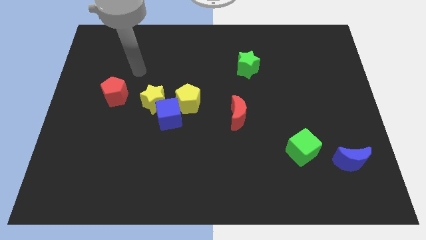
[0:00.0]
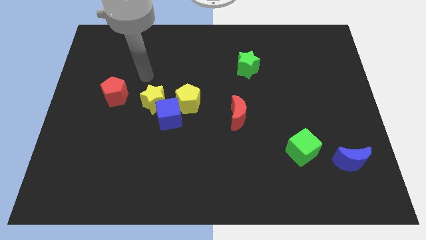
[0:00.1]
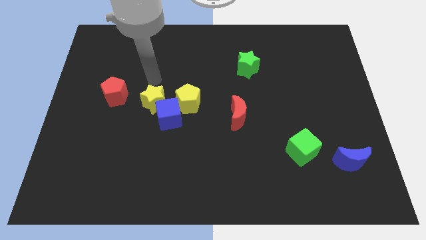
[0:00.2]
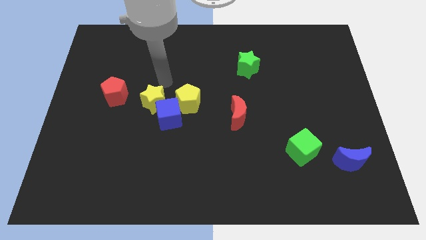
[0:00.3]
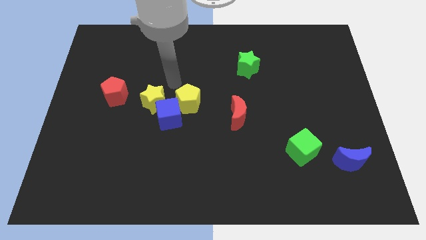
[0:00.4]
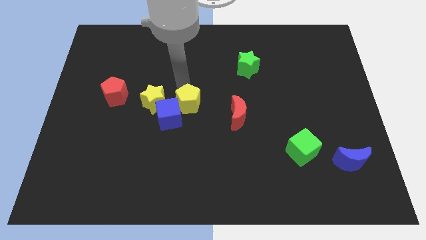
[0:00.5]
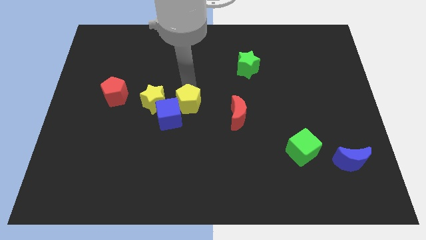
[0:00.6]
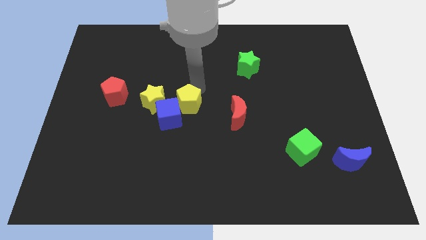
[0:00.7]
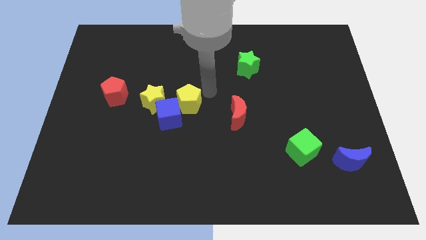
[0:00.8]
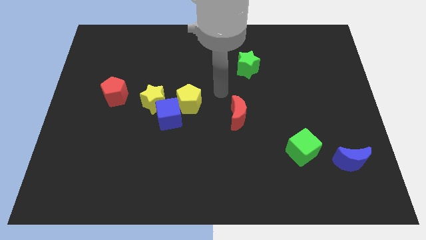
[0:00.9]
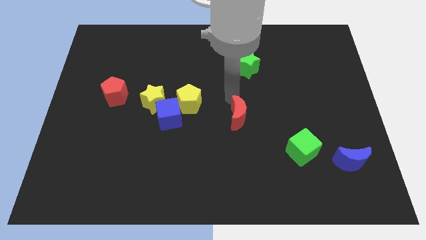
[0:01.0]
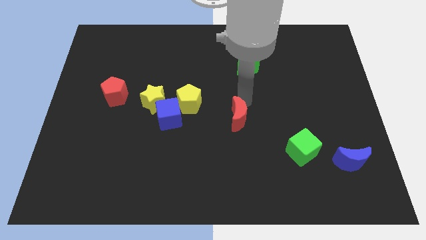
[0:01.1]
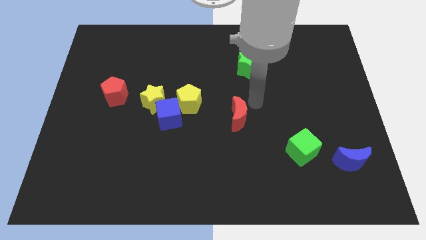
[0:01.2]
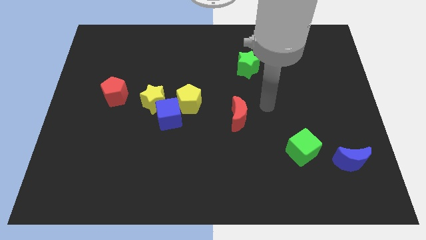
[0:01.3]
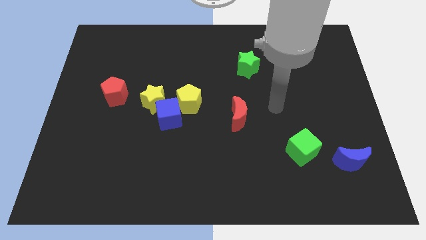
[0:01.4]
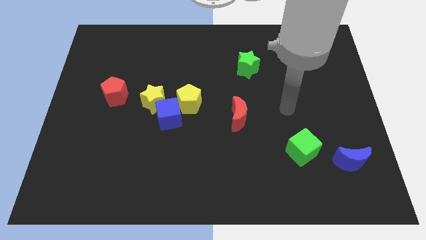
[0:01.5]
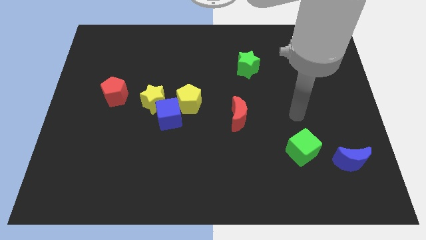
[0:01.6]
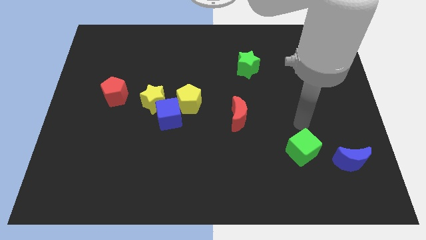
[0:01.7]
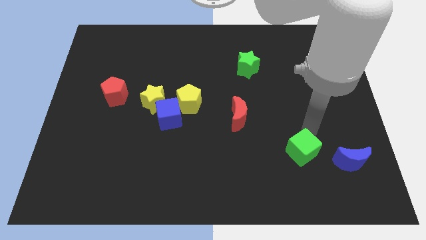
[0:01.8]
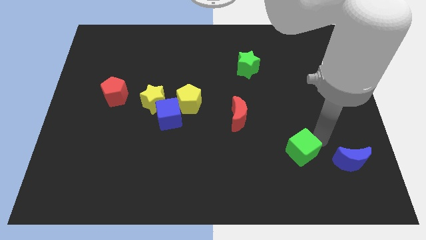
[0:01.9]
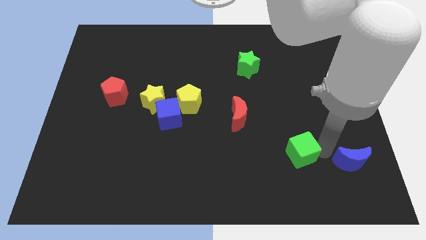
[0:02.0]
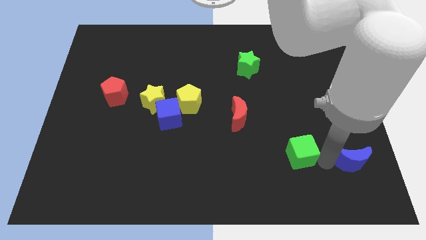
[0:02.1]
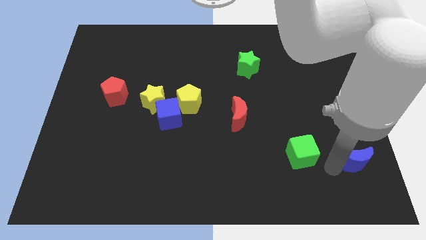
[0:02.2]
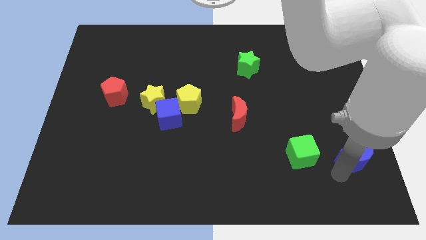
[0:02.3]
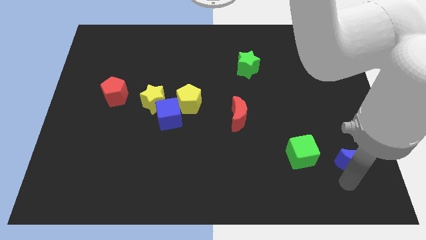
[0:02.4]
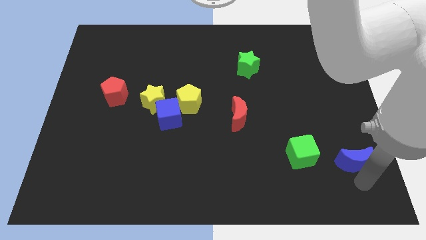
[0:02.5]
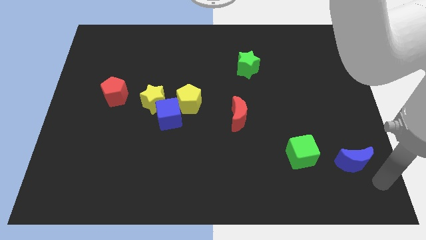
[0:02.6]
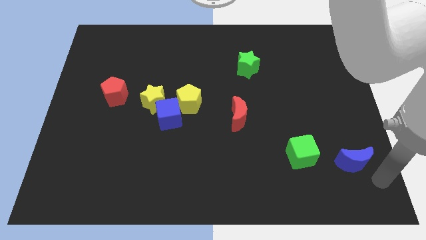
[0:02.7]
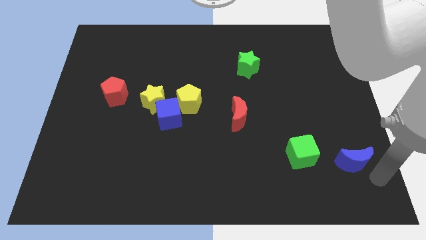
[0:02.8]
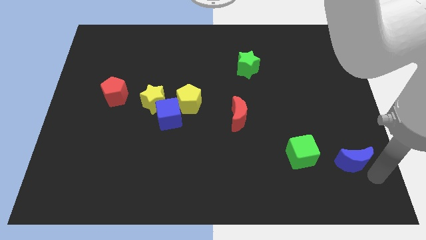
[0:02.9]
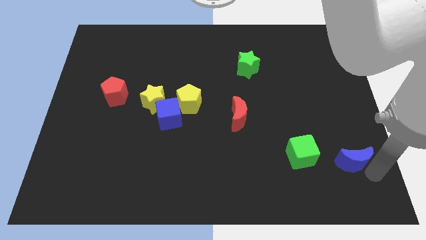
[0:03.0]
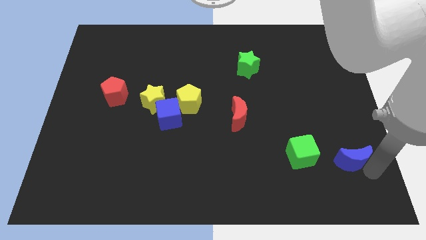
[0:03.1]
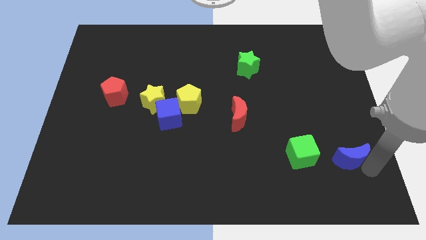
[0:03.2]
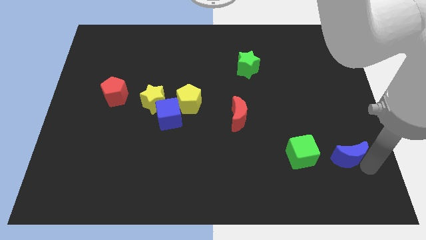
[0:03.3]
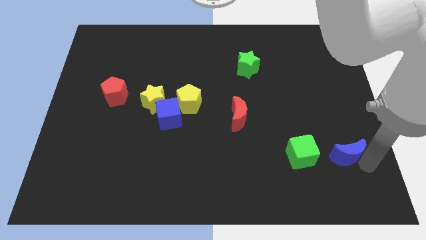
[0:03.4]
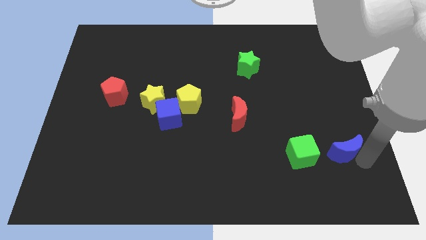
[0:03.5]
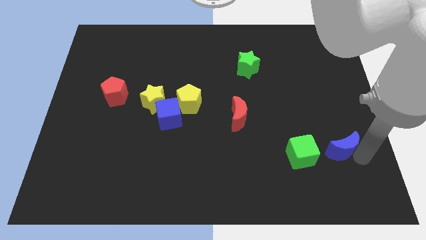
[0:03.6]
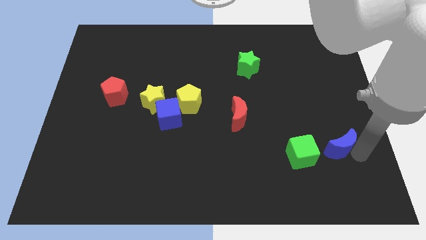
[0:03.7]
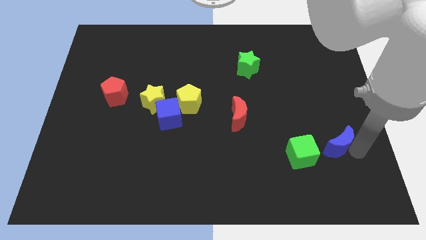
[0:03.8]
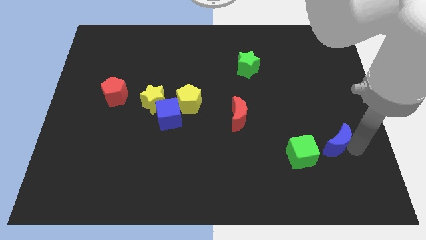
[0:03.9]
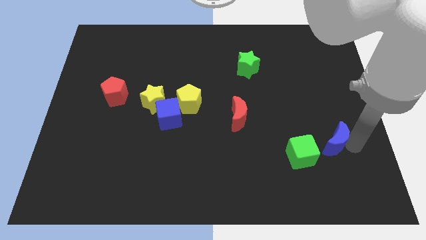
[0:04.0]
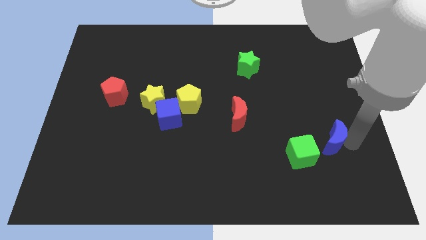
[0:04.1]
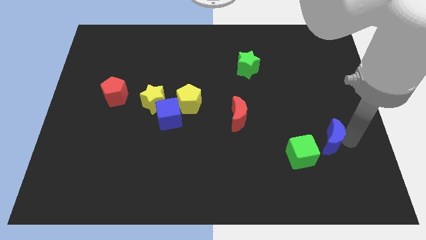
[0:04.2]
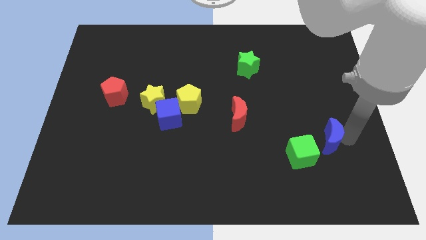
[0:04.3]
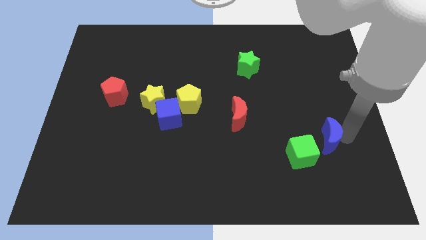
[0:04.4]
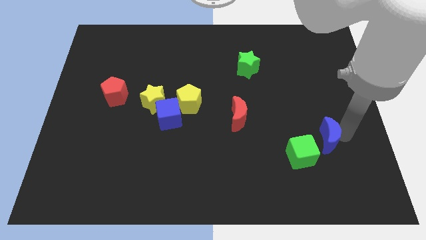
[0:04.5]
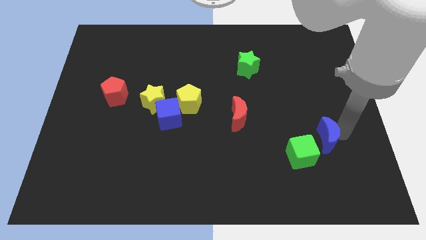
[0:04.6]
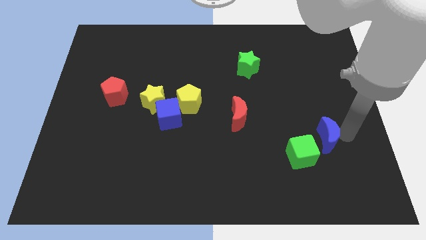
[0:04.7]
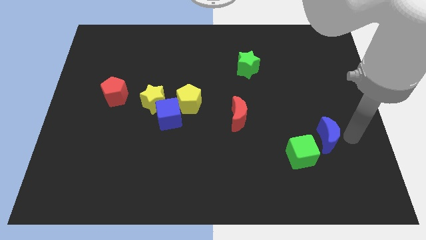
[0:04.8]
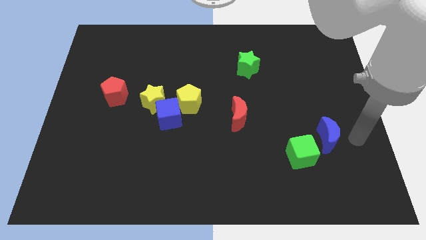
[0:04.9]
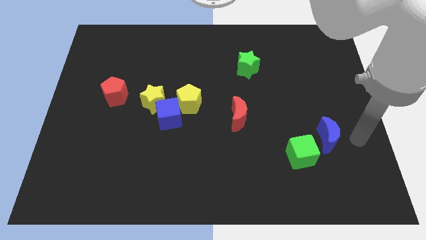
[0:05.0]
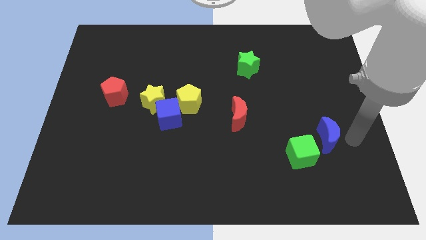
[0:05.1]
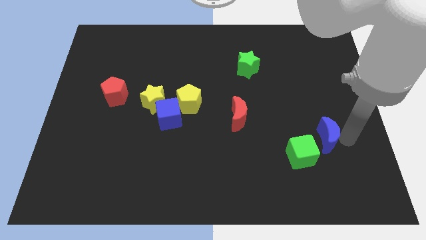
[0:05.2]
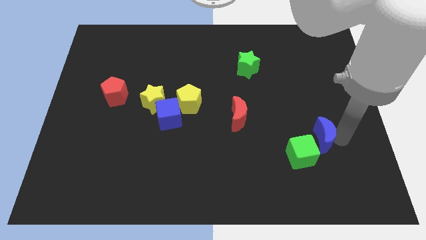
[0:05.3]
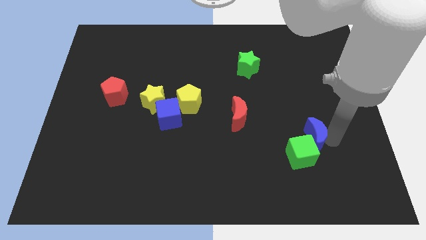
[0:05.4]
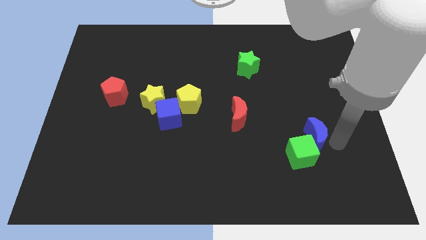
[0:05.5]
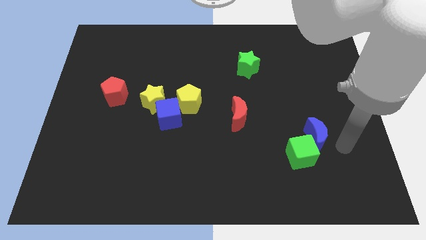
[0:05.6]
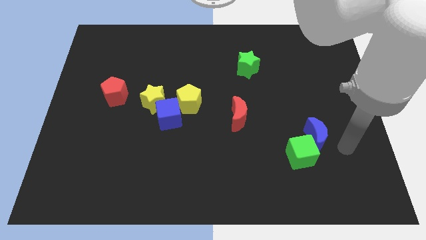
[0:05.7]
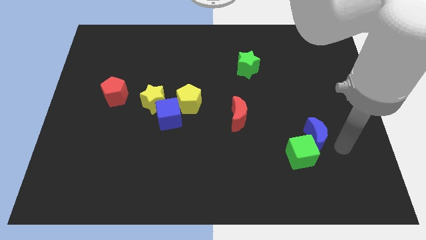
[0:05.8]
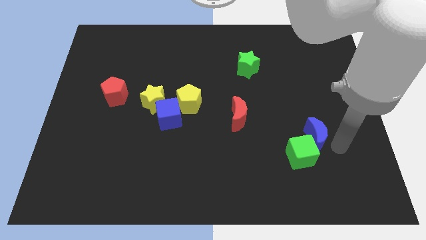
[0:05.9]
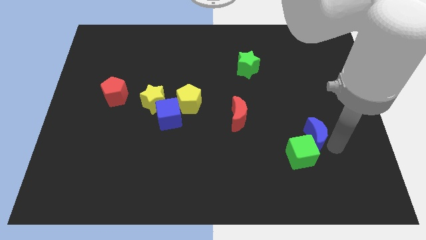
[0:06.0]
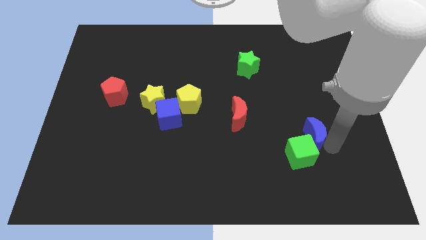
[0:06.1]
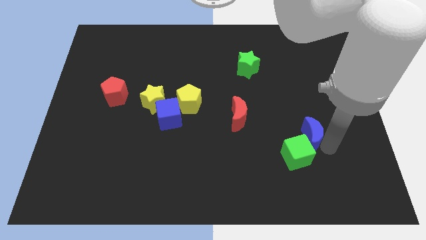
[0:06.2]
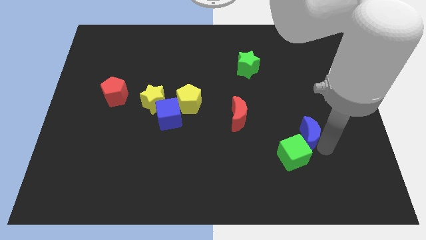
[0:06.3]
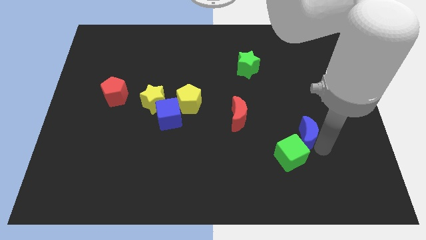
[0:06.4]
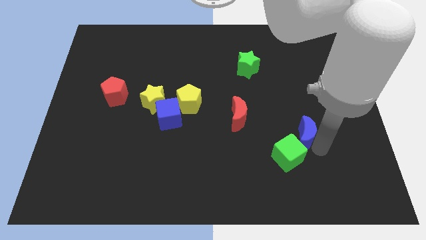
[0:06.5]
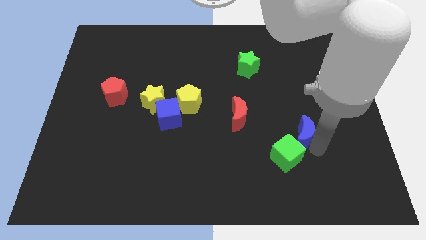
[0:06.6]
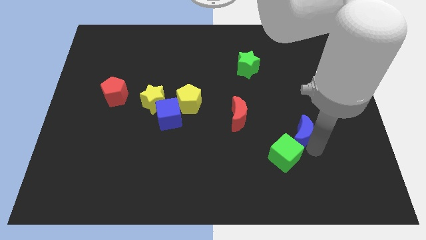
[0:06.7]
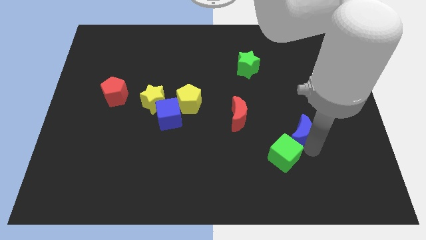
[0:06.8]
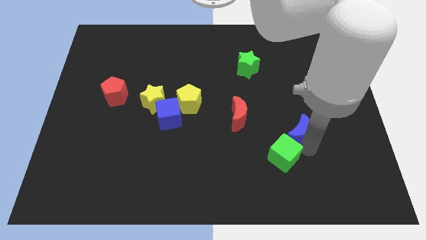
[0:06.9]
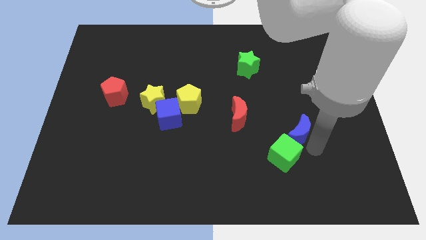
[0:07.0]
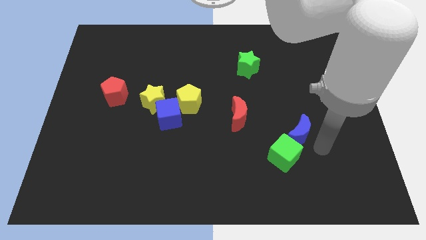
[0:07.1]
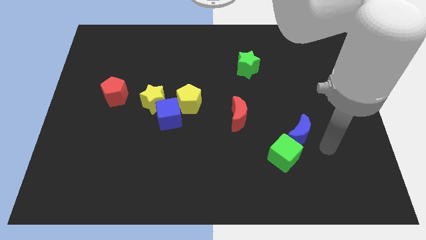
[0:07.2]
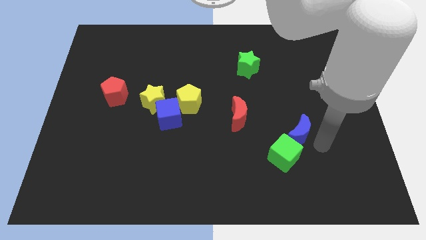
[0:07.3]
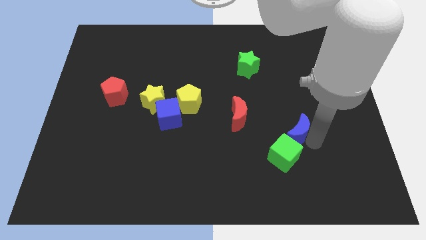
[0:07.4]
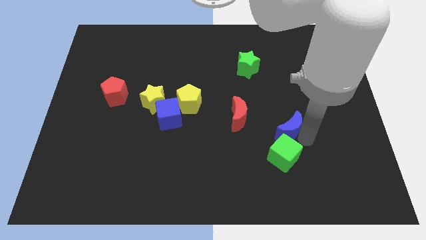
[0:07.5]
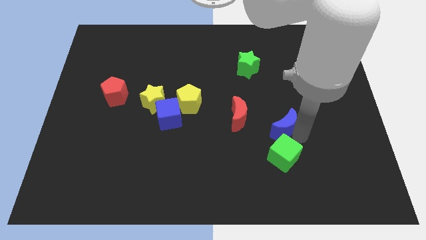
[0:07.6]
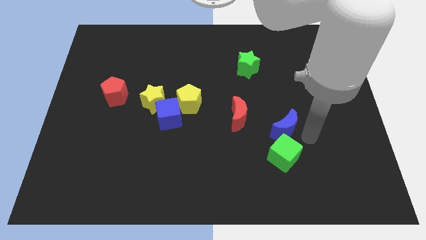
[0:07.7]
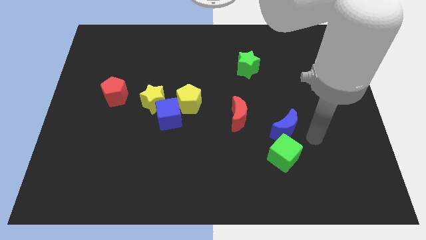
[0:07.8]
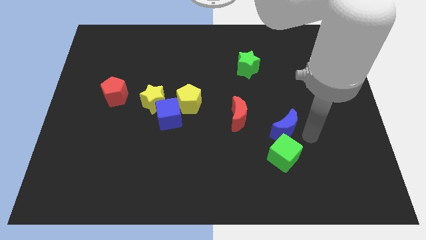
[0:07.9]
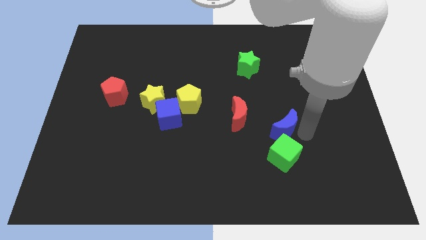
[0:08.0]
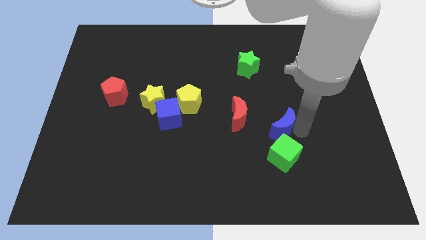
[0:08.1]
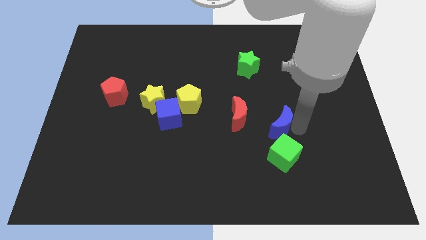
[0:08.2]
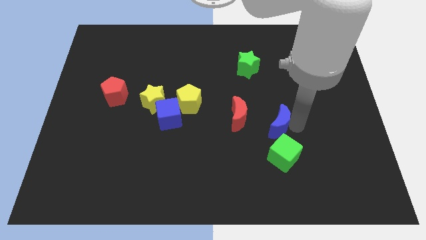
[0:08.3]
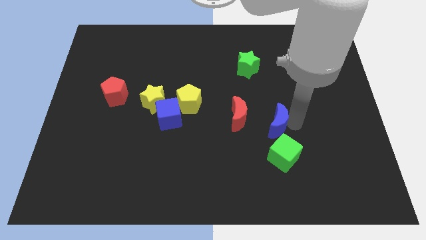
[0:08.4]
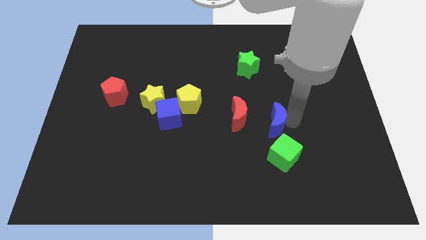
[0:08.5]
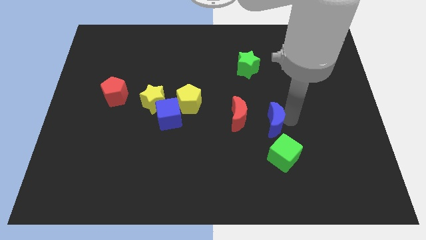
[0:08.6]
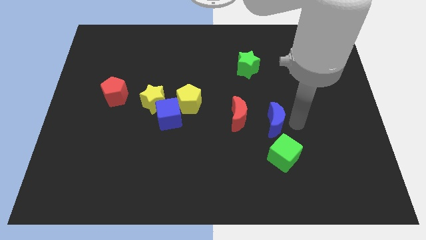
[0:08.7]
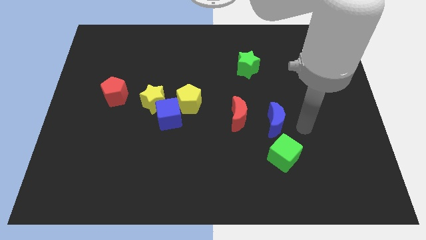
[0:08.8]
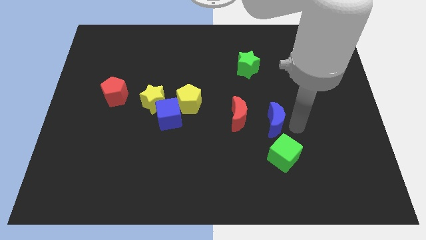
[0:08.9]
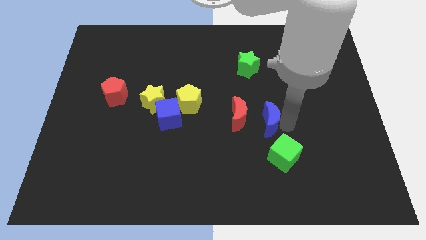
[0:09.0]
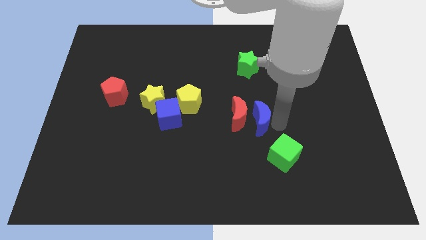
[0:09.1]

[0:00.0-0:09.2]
push the blue moon to the red moon
